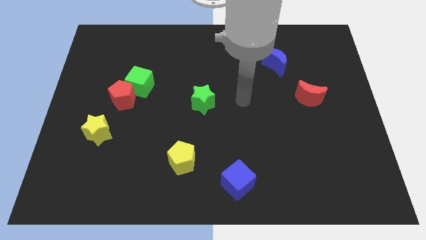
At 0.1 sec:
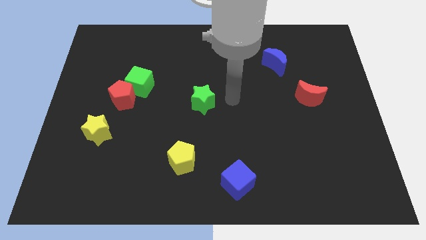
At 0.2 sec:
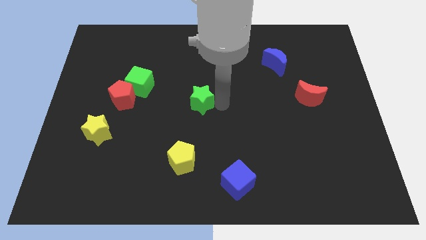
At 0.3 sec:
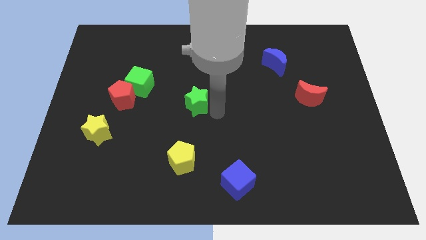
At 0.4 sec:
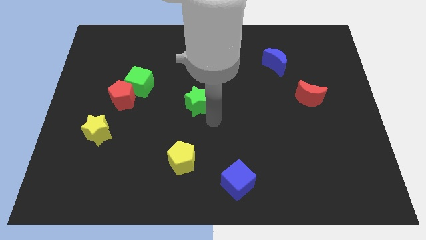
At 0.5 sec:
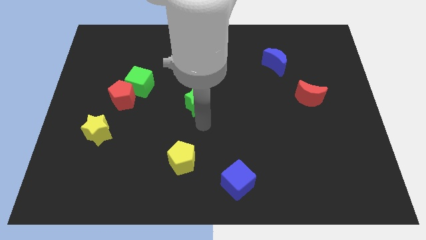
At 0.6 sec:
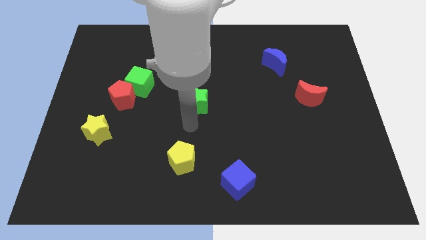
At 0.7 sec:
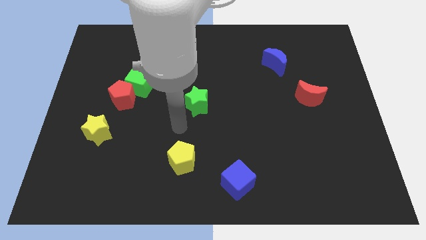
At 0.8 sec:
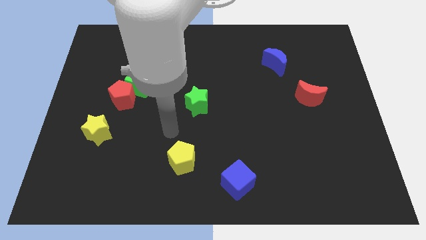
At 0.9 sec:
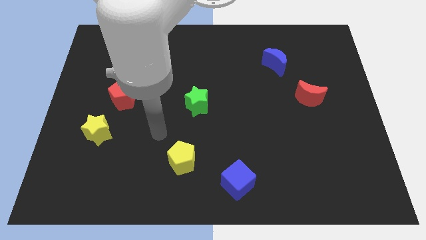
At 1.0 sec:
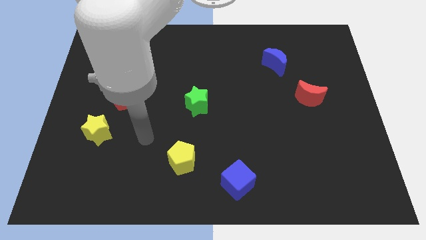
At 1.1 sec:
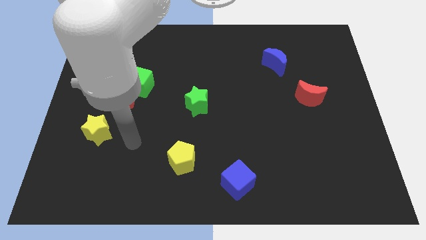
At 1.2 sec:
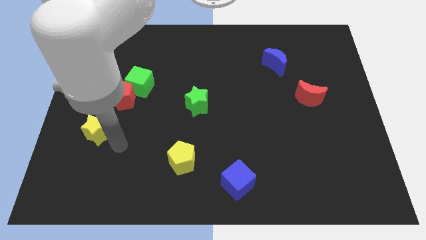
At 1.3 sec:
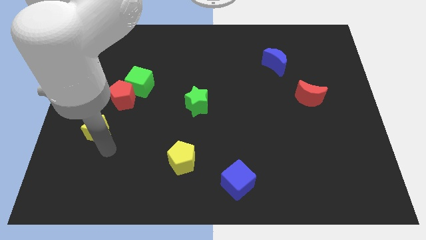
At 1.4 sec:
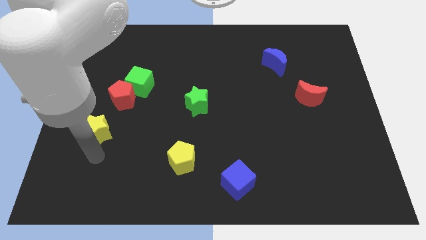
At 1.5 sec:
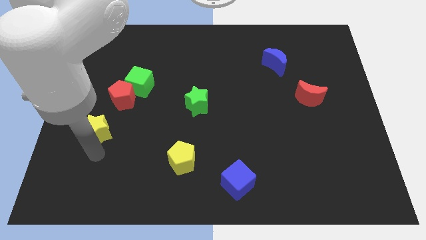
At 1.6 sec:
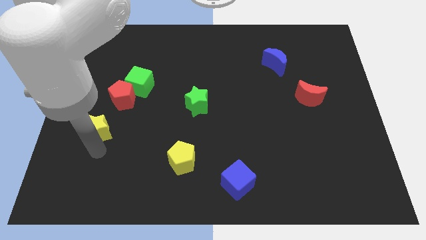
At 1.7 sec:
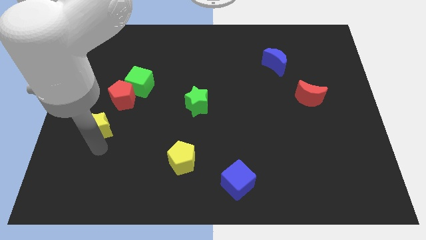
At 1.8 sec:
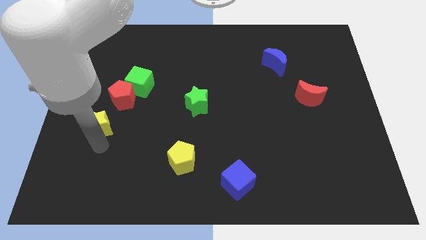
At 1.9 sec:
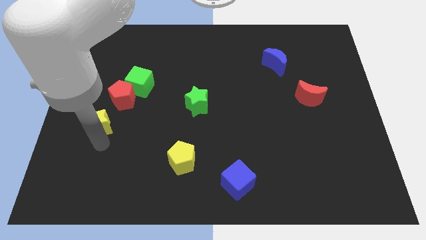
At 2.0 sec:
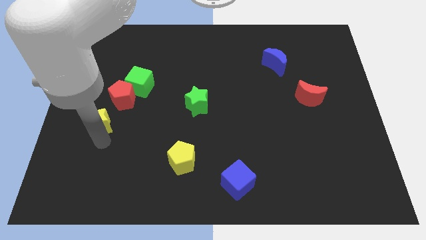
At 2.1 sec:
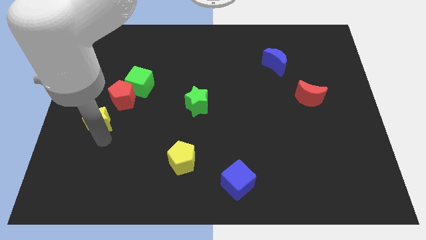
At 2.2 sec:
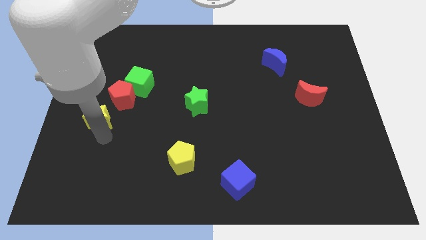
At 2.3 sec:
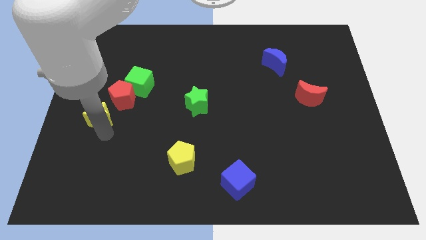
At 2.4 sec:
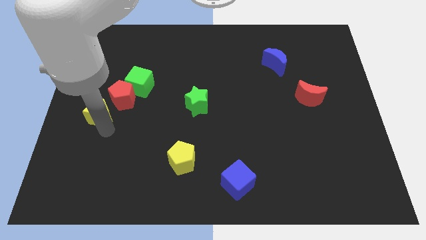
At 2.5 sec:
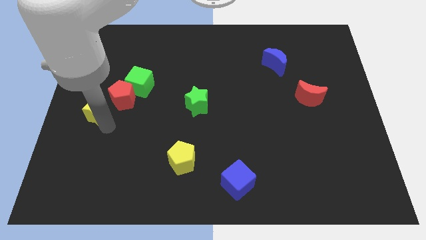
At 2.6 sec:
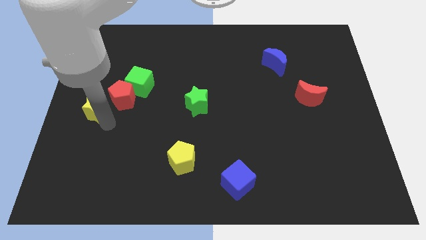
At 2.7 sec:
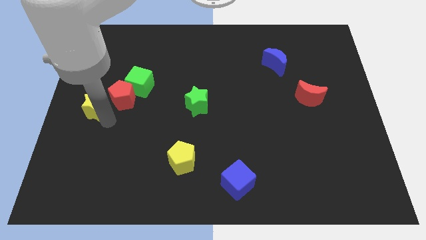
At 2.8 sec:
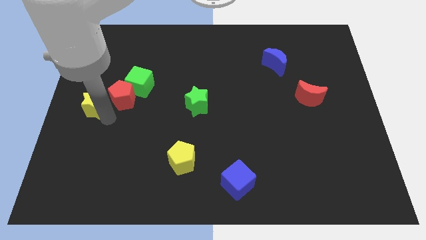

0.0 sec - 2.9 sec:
slightly slide the yellow star upwards

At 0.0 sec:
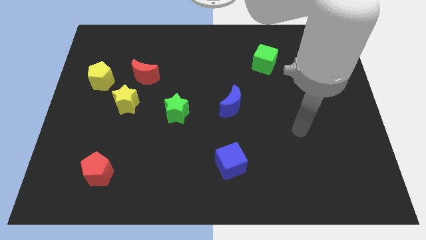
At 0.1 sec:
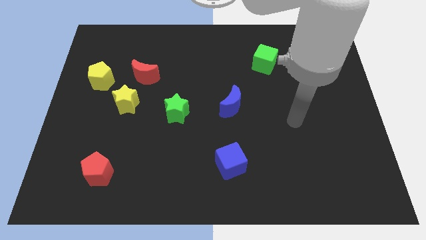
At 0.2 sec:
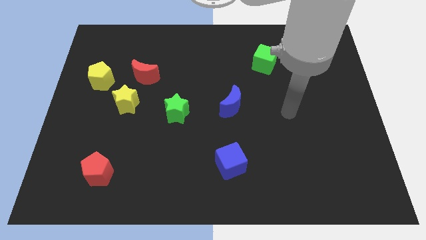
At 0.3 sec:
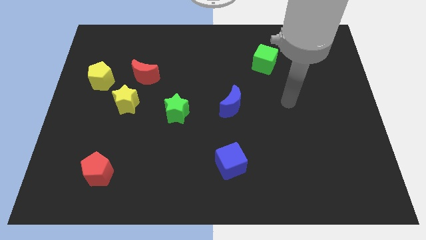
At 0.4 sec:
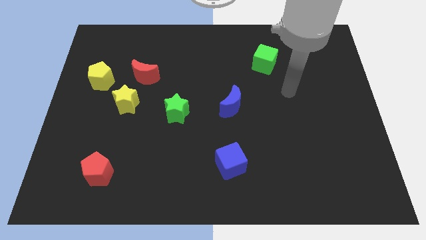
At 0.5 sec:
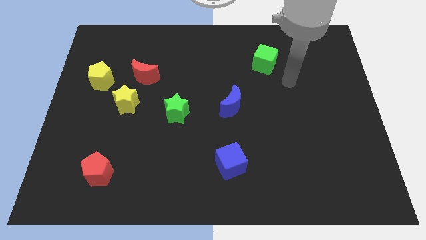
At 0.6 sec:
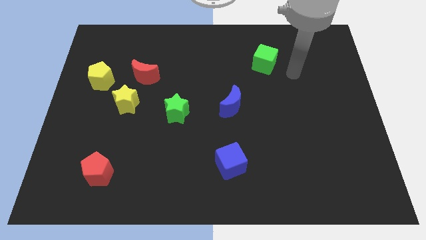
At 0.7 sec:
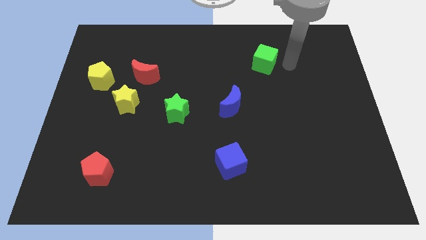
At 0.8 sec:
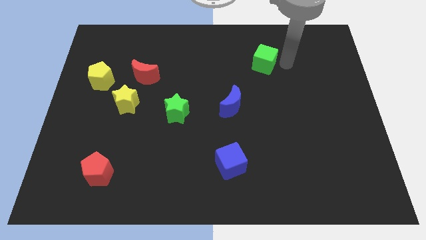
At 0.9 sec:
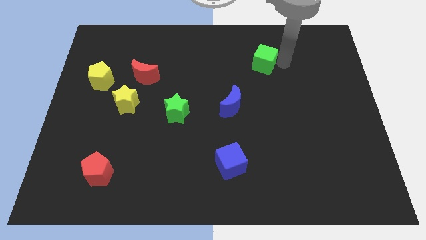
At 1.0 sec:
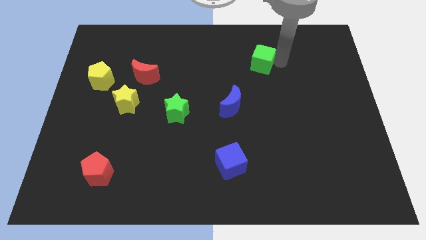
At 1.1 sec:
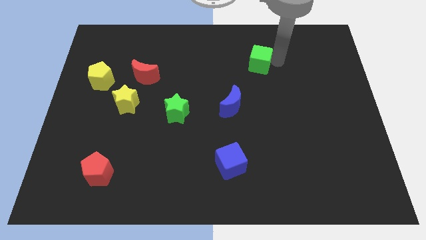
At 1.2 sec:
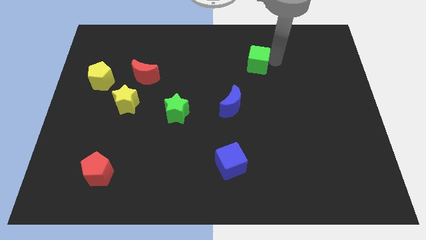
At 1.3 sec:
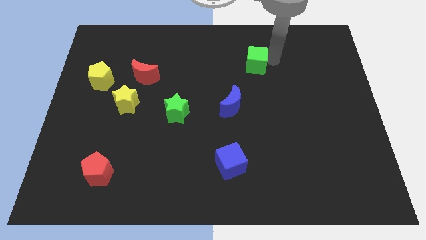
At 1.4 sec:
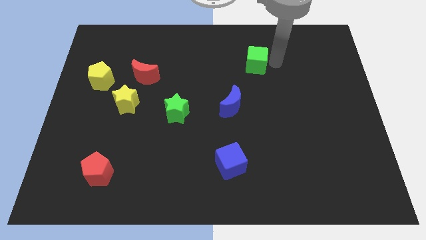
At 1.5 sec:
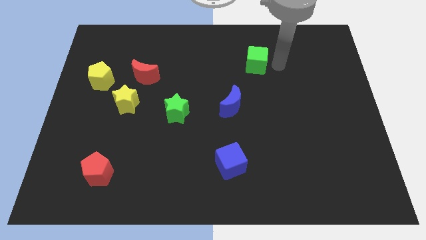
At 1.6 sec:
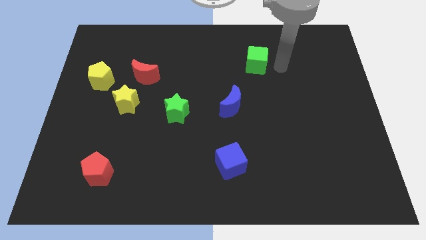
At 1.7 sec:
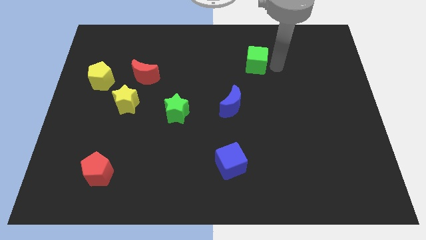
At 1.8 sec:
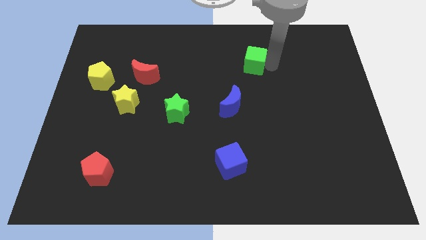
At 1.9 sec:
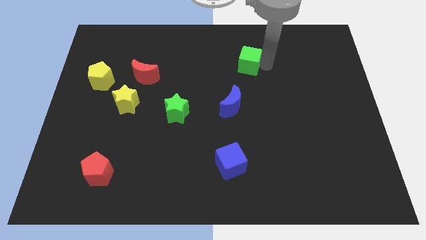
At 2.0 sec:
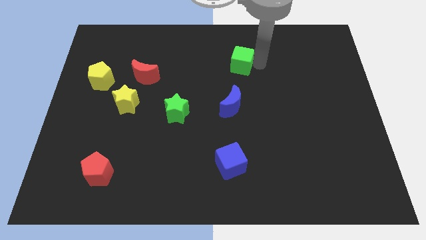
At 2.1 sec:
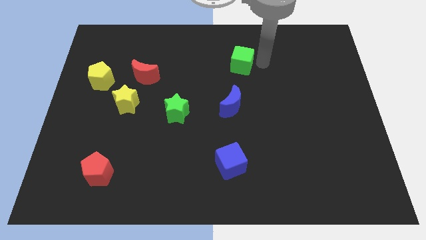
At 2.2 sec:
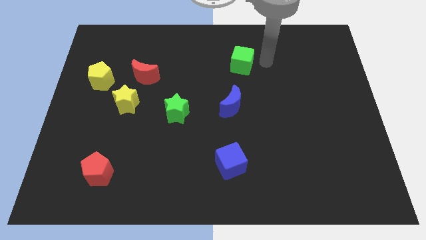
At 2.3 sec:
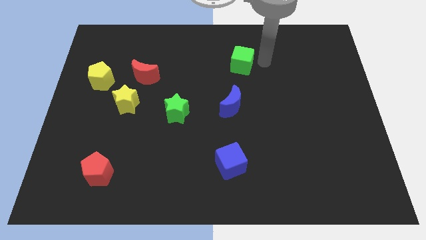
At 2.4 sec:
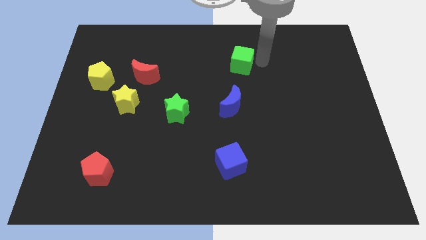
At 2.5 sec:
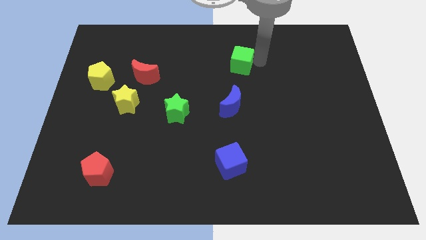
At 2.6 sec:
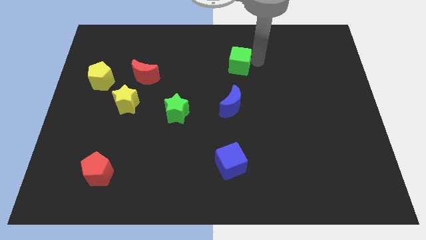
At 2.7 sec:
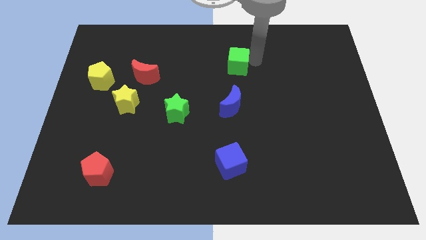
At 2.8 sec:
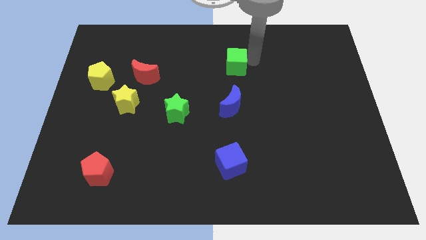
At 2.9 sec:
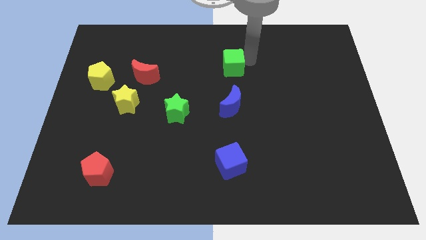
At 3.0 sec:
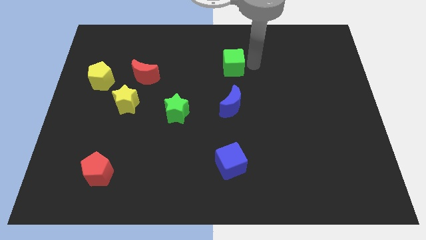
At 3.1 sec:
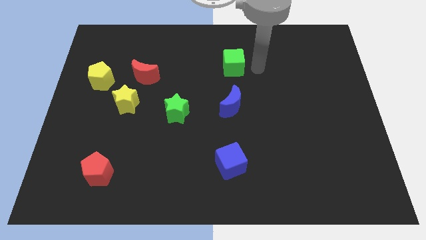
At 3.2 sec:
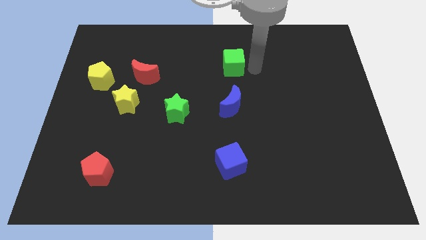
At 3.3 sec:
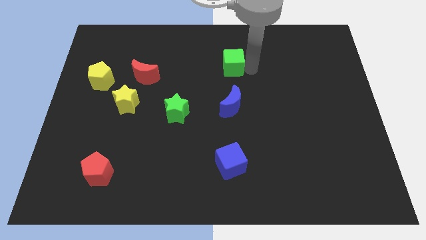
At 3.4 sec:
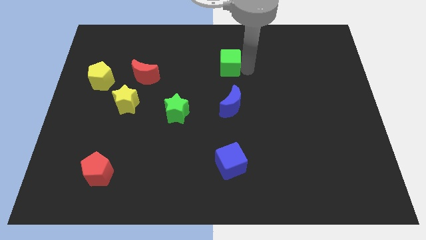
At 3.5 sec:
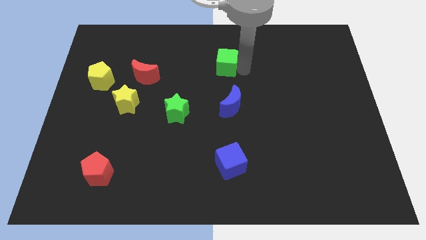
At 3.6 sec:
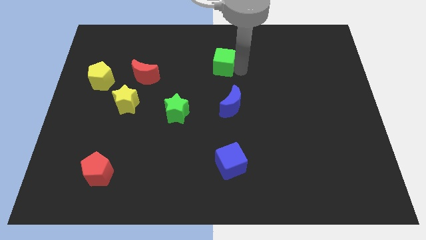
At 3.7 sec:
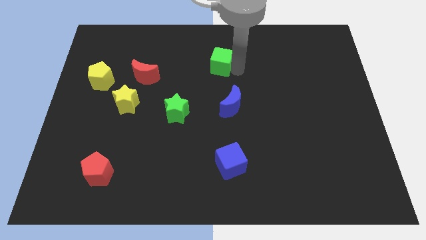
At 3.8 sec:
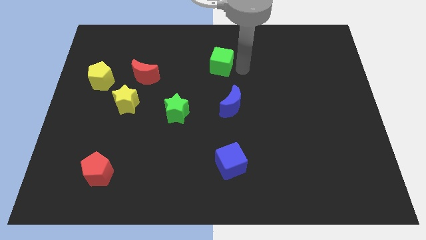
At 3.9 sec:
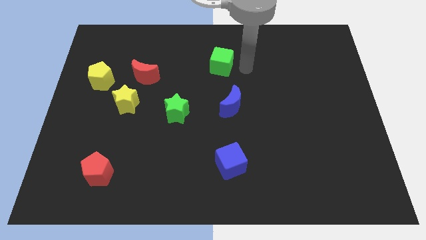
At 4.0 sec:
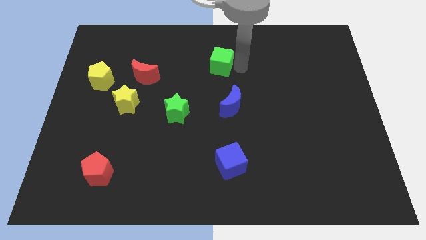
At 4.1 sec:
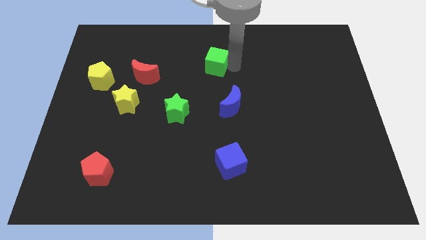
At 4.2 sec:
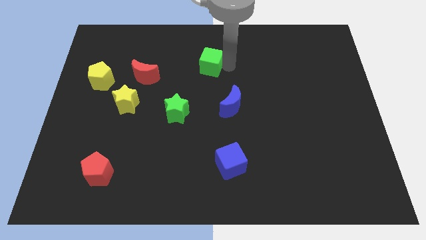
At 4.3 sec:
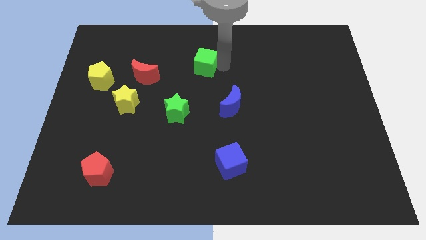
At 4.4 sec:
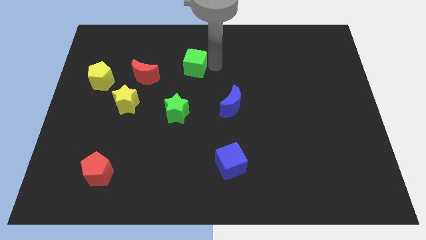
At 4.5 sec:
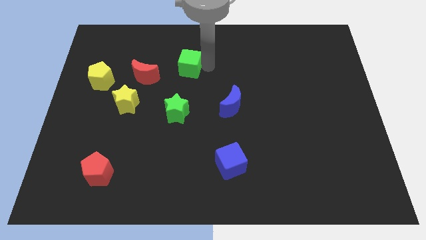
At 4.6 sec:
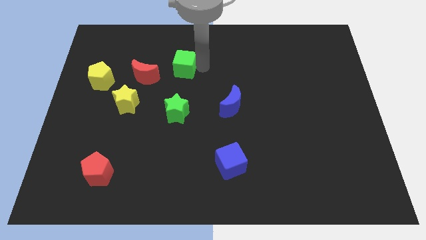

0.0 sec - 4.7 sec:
move the green cube to the left

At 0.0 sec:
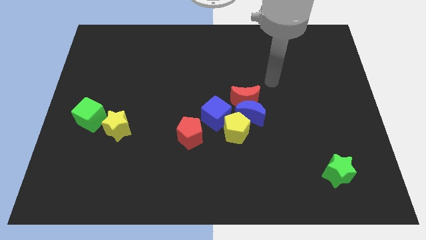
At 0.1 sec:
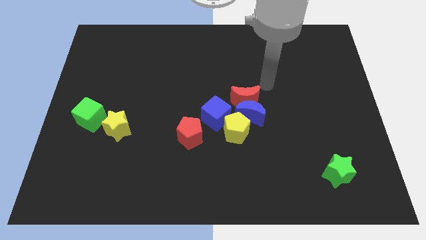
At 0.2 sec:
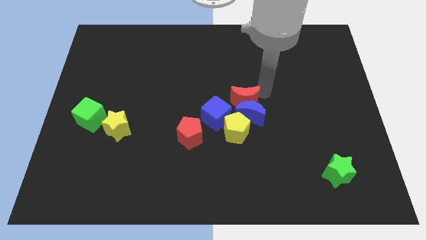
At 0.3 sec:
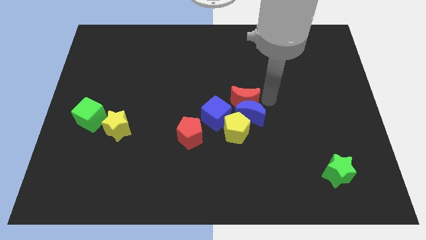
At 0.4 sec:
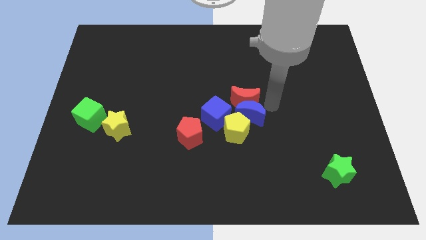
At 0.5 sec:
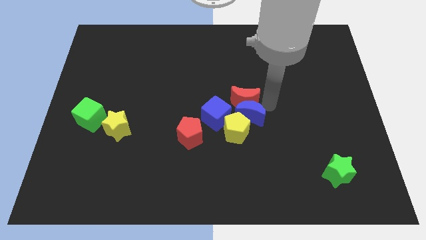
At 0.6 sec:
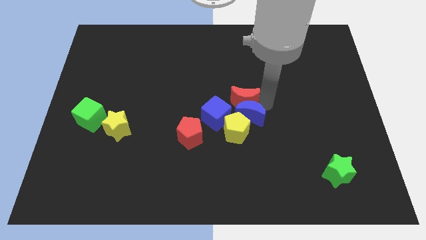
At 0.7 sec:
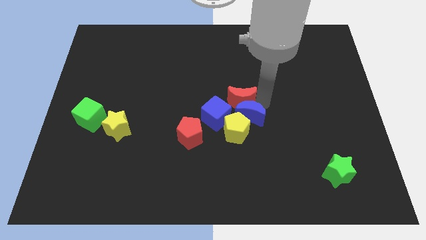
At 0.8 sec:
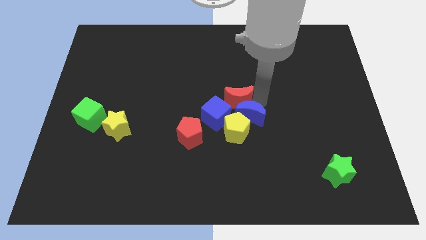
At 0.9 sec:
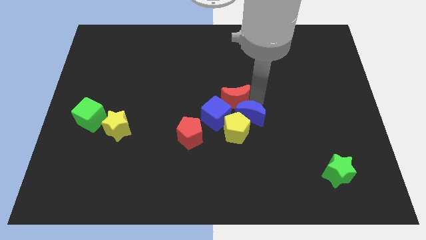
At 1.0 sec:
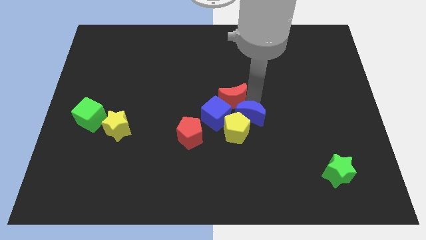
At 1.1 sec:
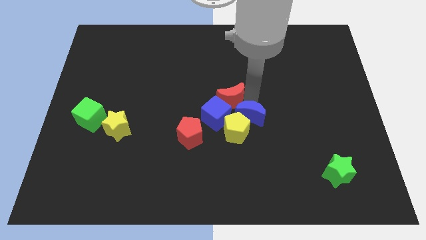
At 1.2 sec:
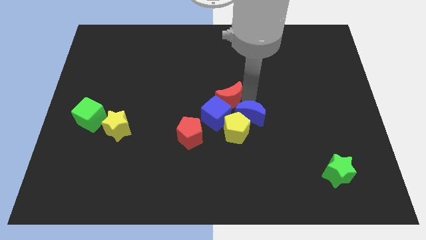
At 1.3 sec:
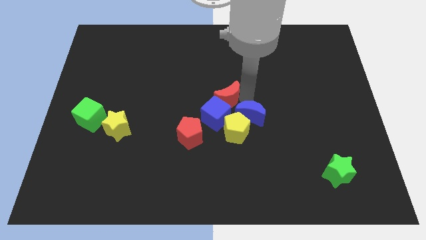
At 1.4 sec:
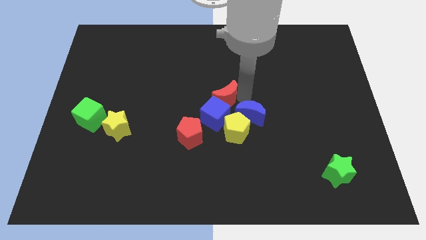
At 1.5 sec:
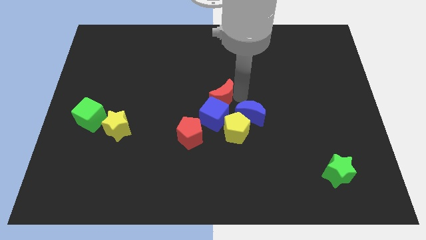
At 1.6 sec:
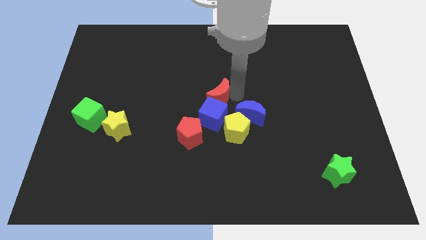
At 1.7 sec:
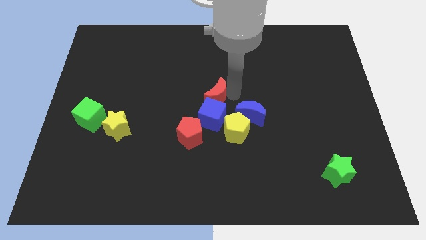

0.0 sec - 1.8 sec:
slide the red moon somewhat to the left
